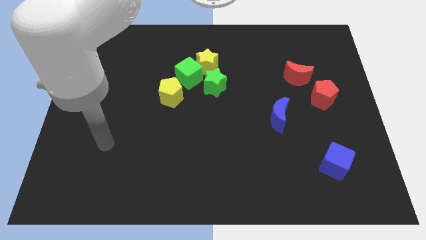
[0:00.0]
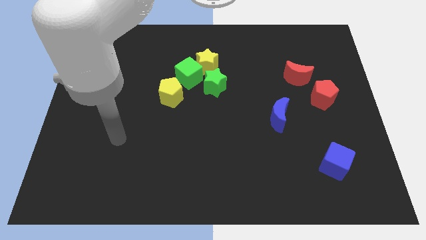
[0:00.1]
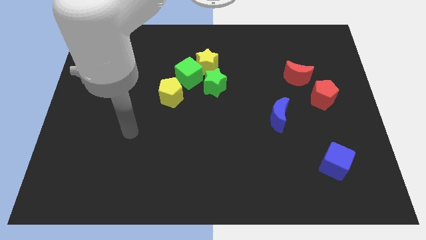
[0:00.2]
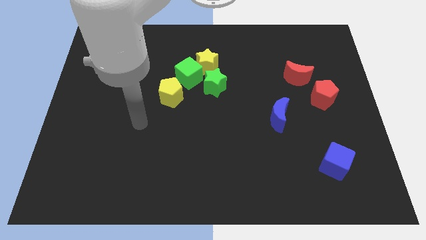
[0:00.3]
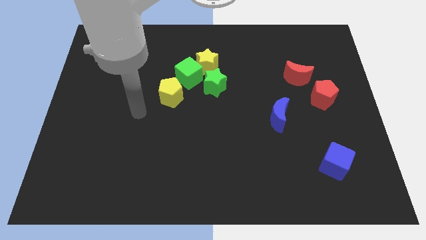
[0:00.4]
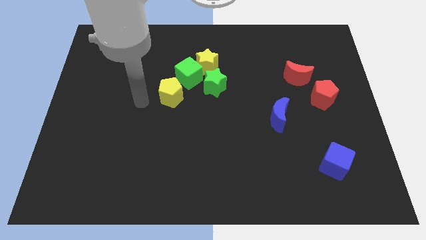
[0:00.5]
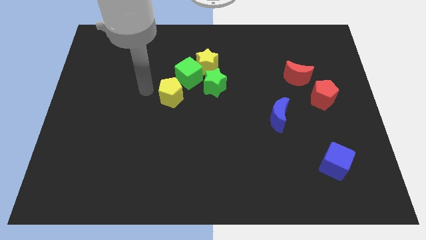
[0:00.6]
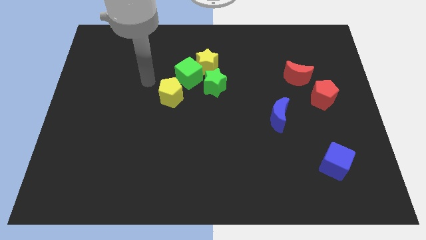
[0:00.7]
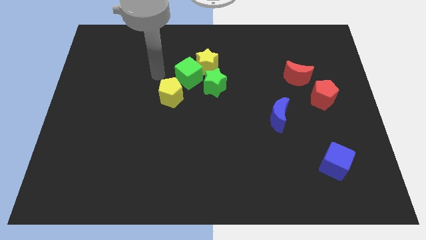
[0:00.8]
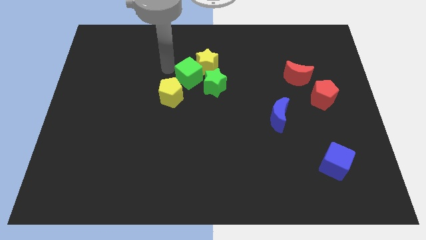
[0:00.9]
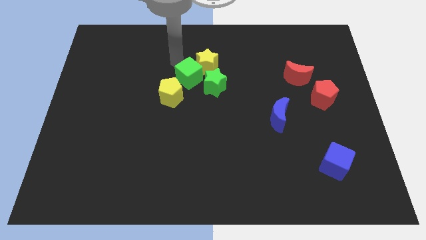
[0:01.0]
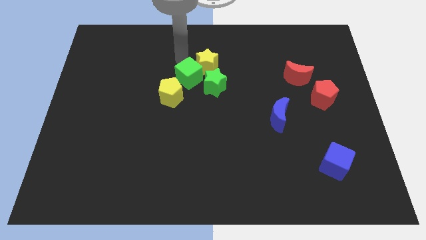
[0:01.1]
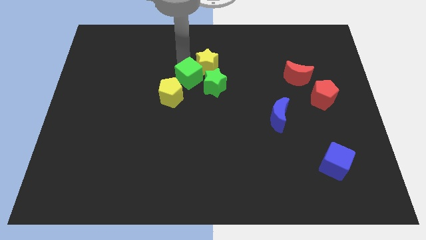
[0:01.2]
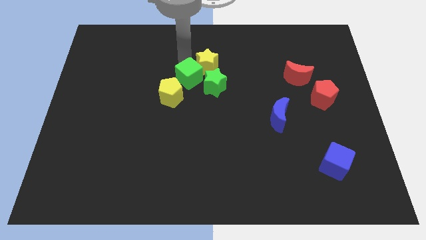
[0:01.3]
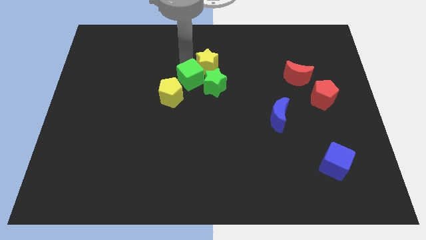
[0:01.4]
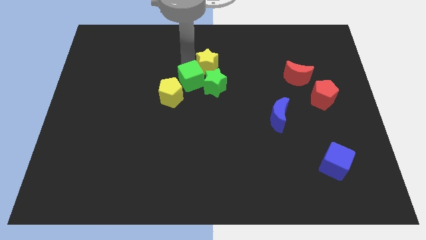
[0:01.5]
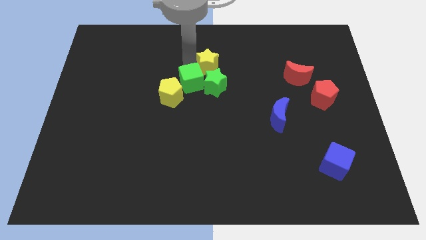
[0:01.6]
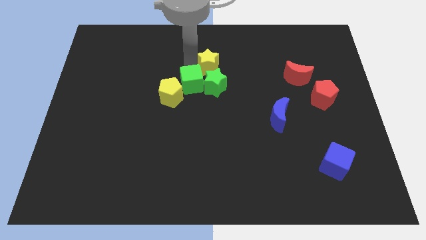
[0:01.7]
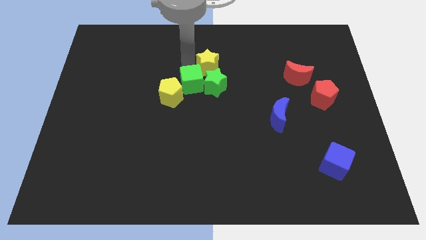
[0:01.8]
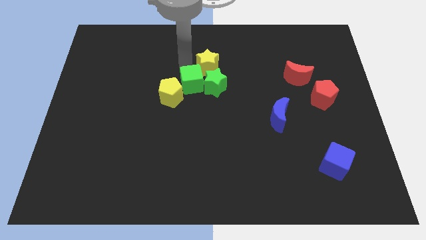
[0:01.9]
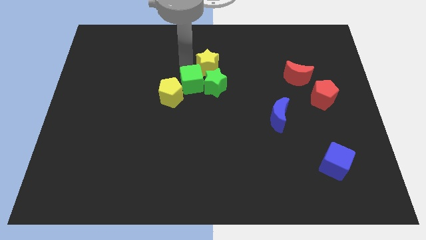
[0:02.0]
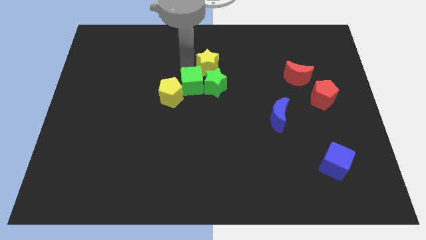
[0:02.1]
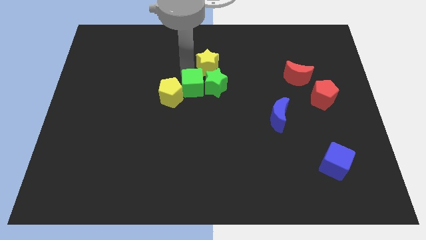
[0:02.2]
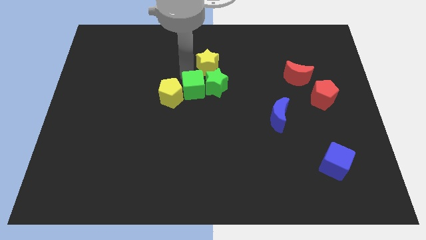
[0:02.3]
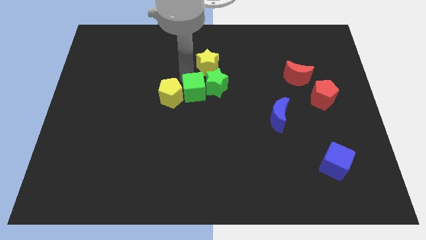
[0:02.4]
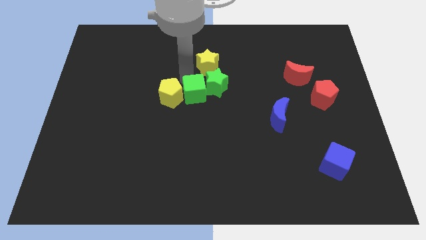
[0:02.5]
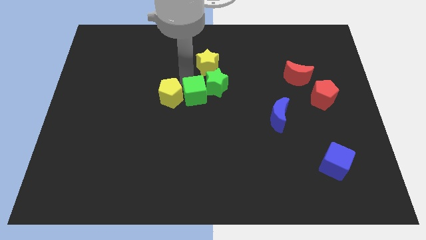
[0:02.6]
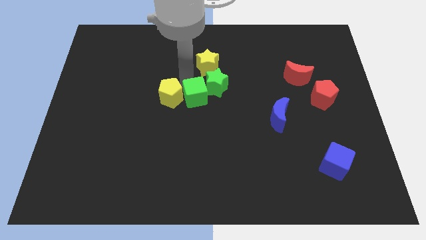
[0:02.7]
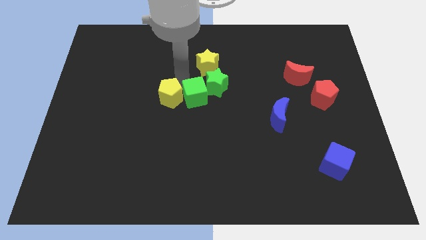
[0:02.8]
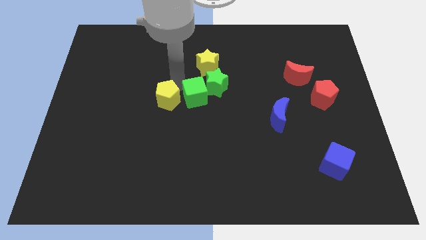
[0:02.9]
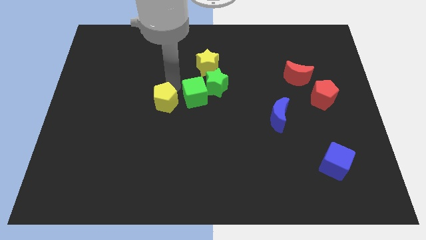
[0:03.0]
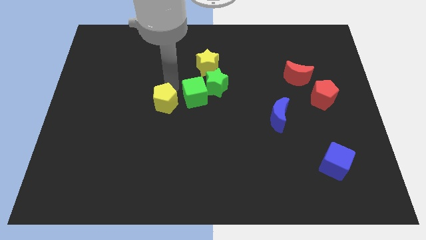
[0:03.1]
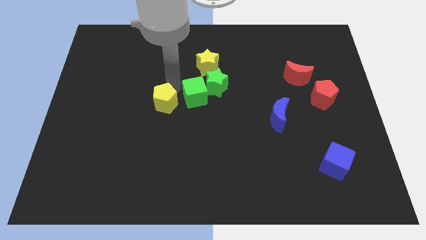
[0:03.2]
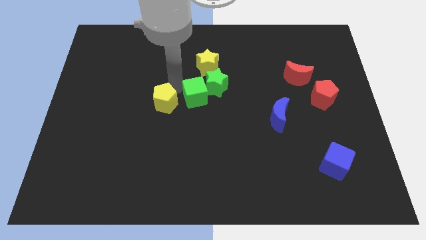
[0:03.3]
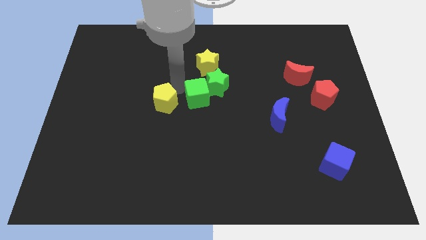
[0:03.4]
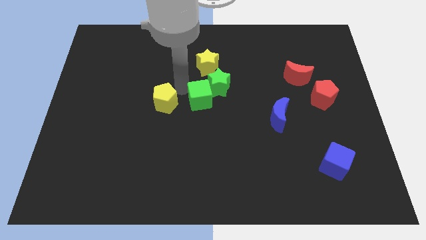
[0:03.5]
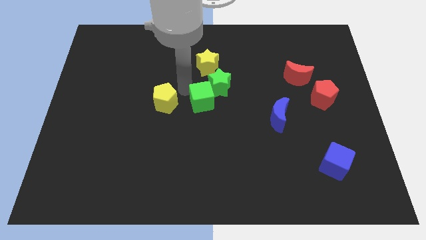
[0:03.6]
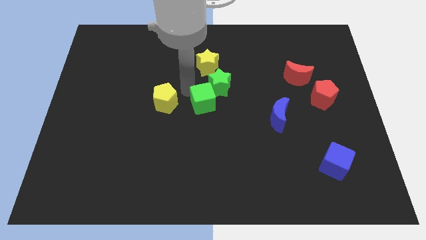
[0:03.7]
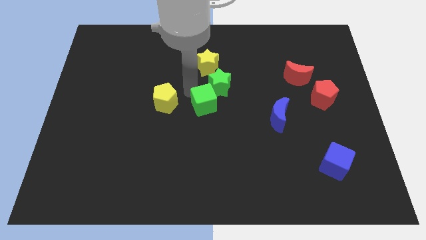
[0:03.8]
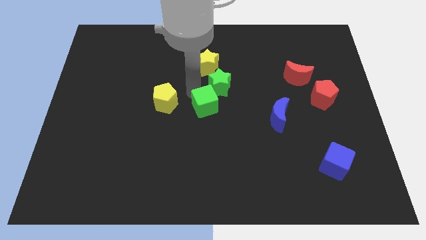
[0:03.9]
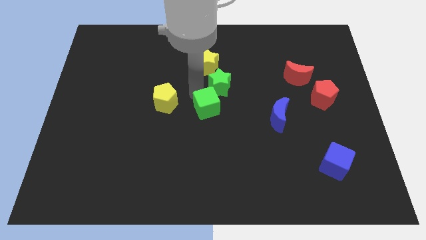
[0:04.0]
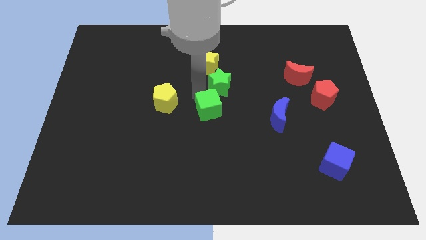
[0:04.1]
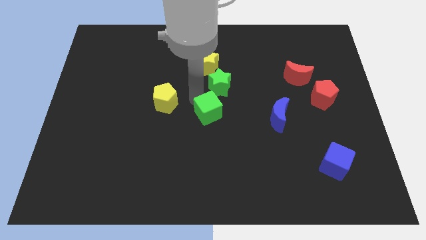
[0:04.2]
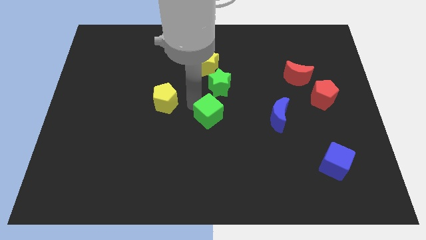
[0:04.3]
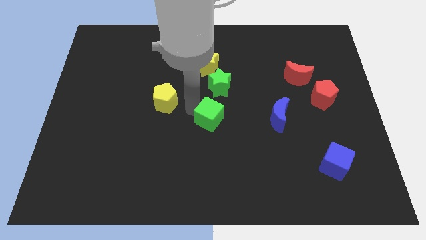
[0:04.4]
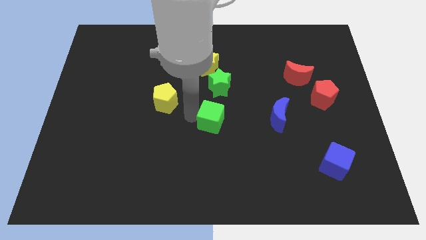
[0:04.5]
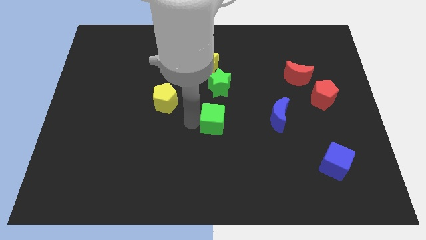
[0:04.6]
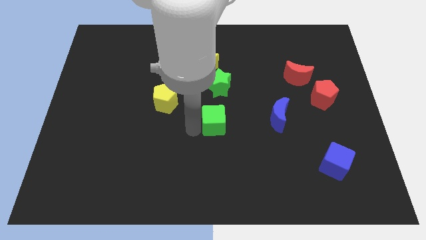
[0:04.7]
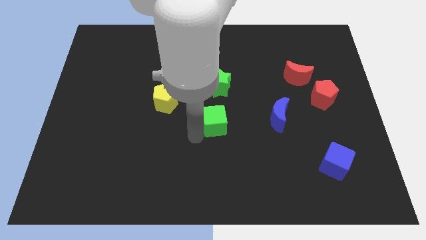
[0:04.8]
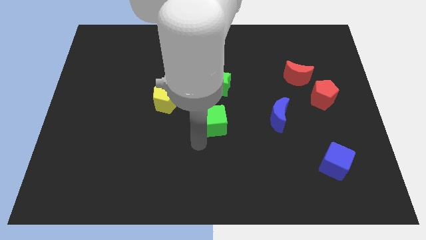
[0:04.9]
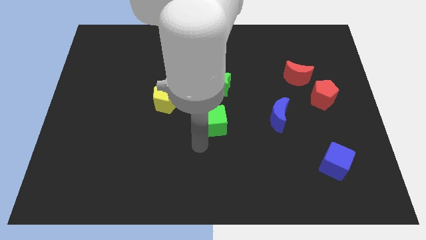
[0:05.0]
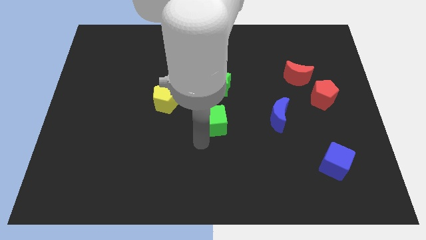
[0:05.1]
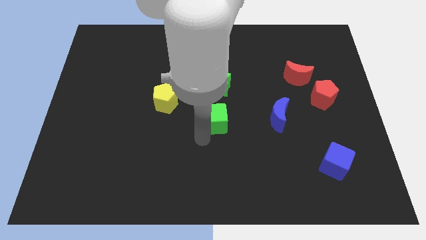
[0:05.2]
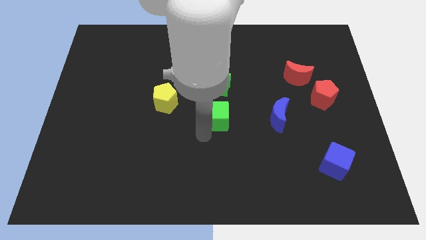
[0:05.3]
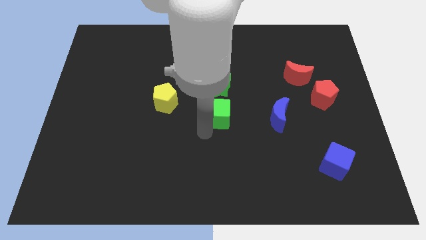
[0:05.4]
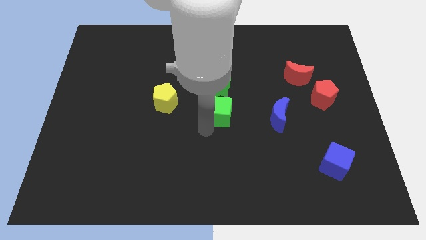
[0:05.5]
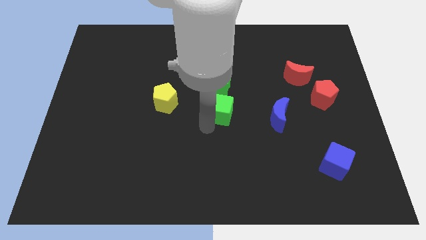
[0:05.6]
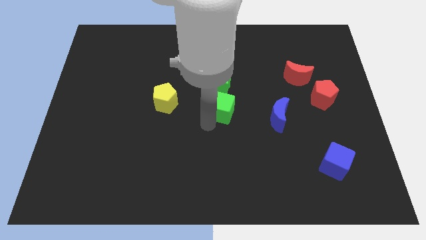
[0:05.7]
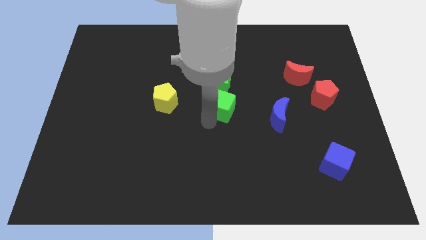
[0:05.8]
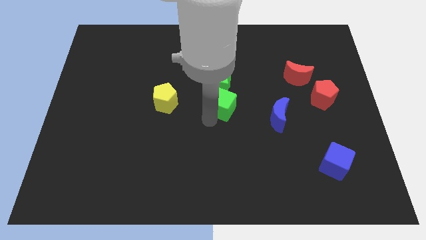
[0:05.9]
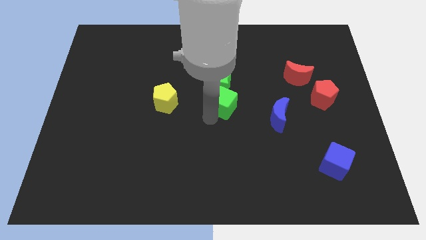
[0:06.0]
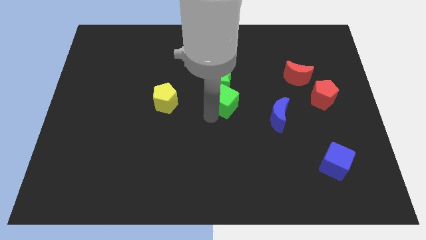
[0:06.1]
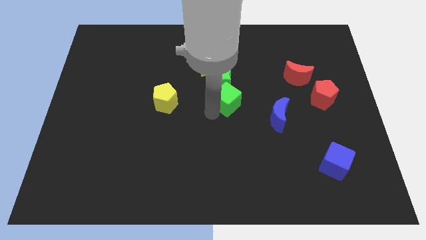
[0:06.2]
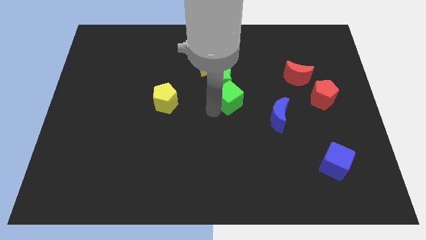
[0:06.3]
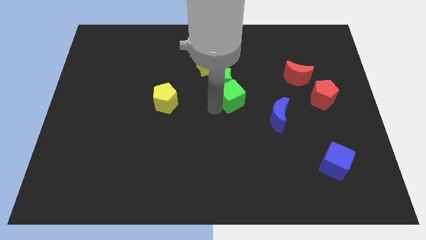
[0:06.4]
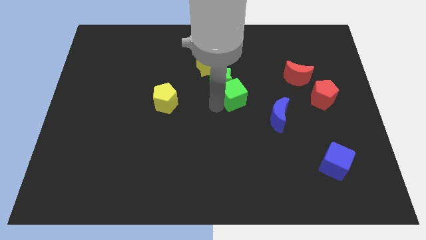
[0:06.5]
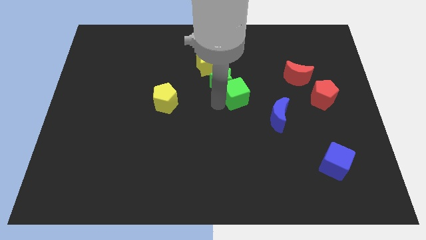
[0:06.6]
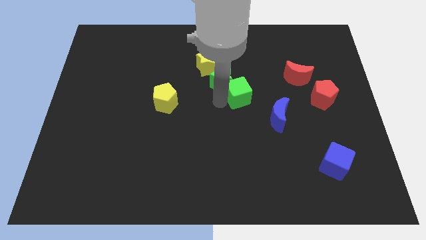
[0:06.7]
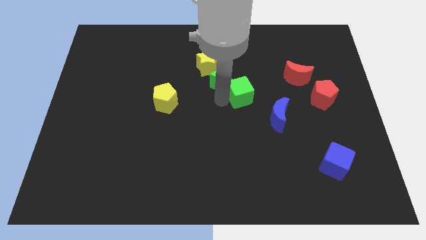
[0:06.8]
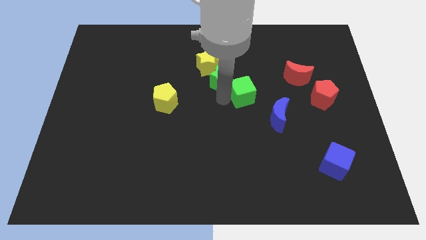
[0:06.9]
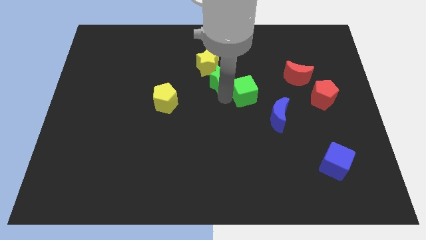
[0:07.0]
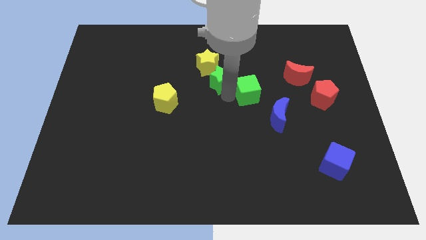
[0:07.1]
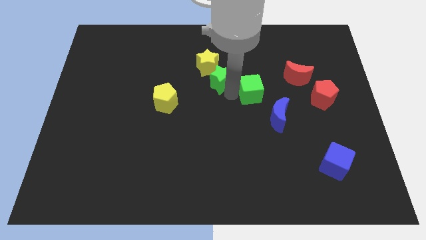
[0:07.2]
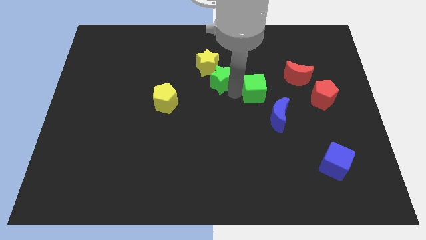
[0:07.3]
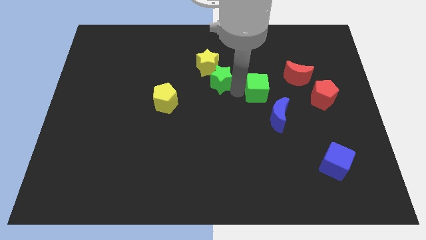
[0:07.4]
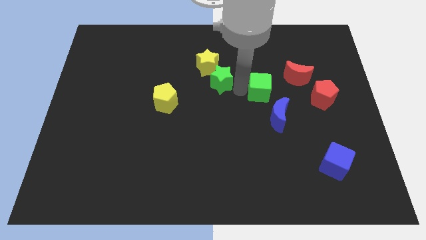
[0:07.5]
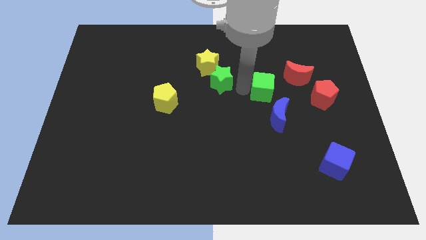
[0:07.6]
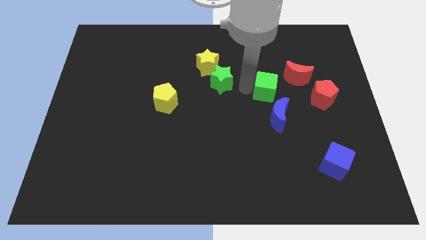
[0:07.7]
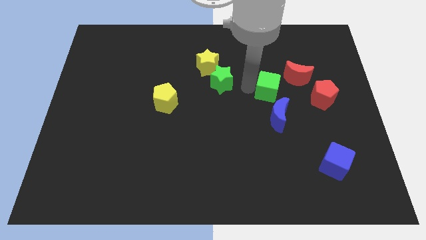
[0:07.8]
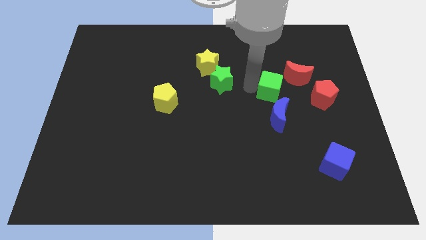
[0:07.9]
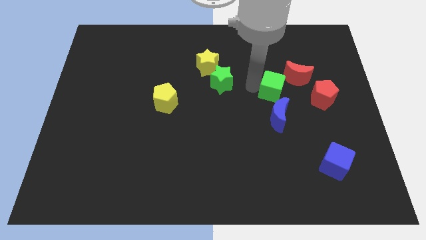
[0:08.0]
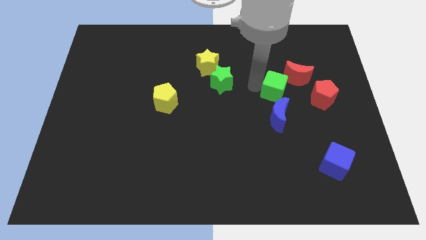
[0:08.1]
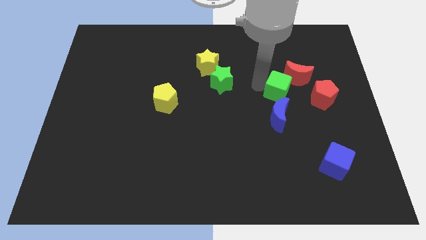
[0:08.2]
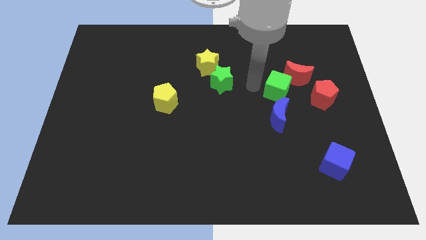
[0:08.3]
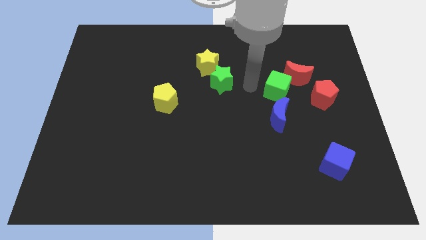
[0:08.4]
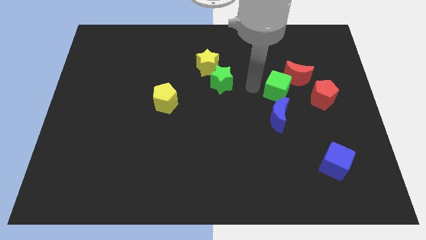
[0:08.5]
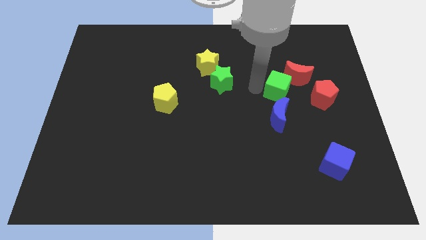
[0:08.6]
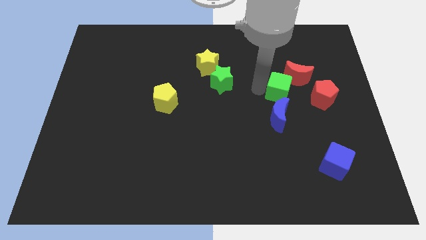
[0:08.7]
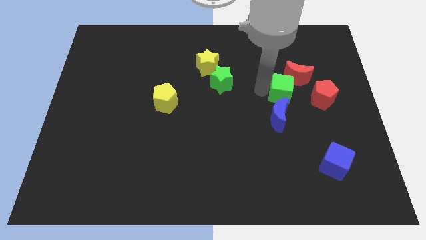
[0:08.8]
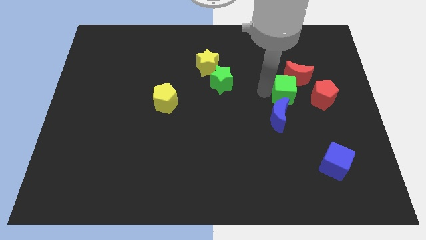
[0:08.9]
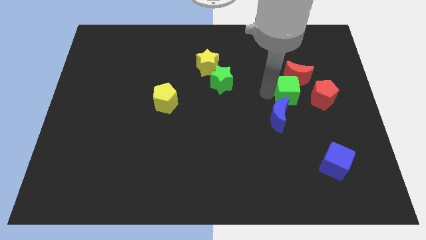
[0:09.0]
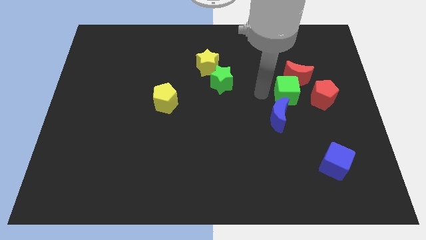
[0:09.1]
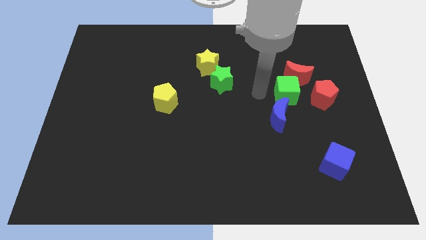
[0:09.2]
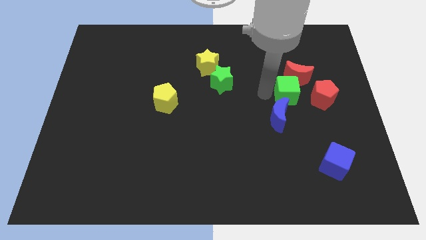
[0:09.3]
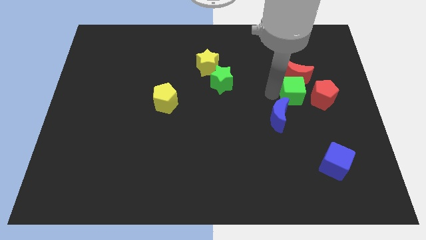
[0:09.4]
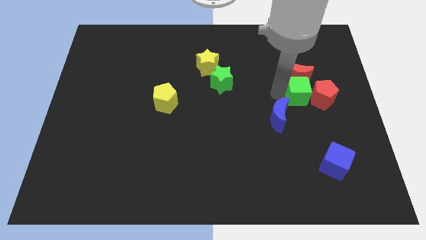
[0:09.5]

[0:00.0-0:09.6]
put the green cube towards the red pentagon
